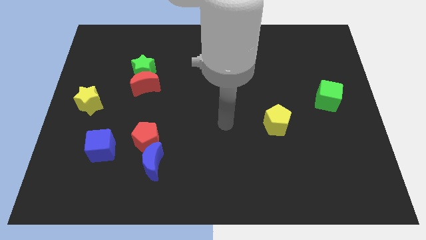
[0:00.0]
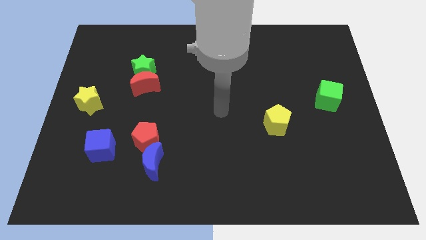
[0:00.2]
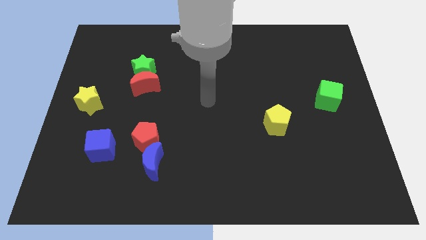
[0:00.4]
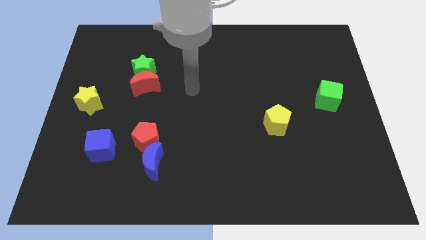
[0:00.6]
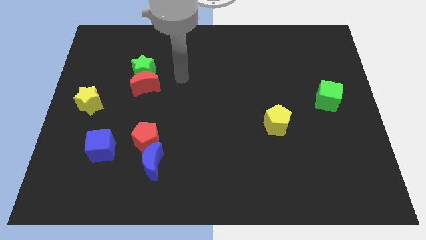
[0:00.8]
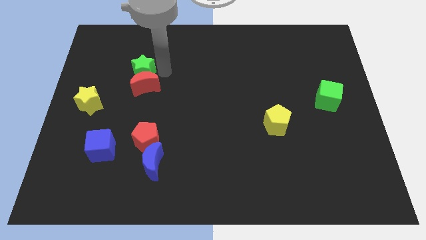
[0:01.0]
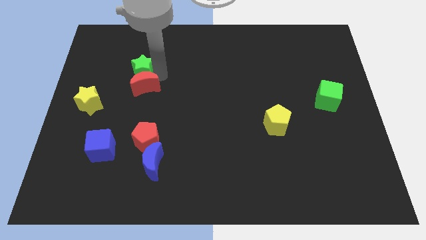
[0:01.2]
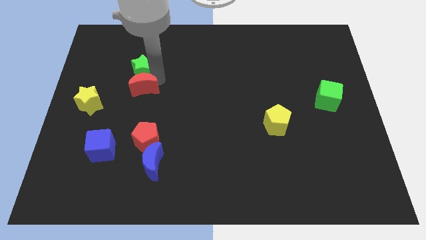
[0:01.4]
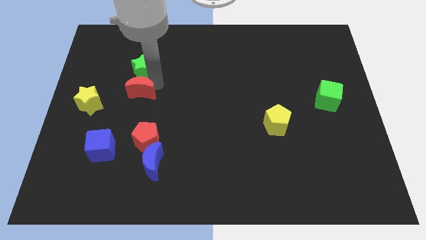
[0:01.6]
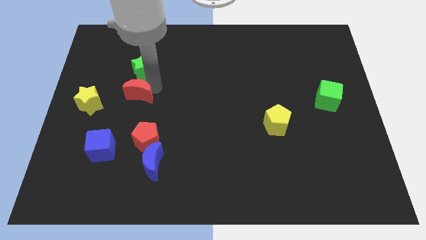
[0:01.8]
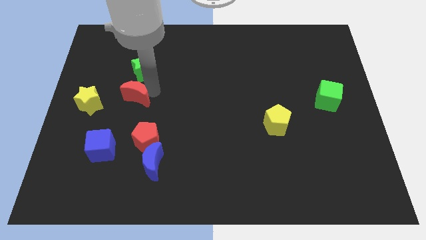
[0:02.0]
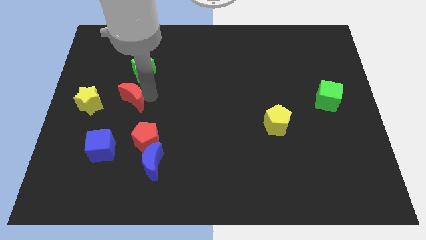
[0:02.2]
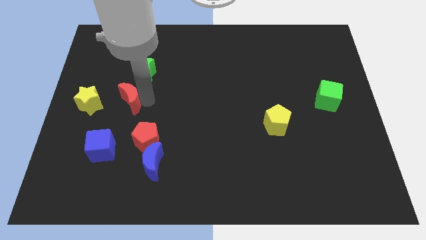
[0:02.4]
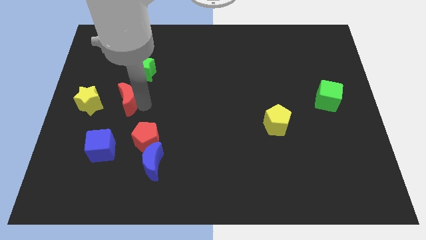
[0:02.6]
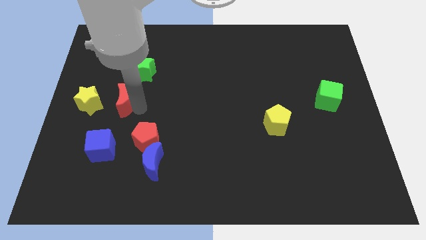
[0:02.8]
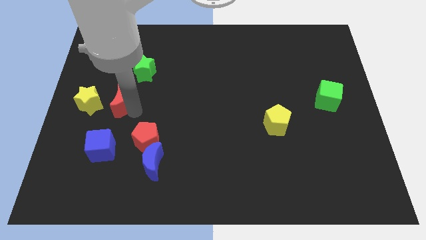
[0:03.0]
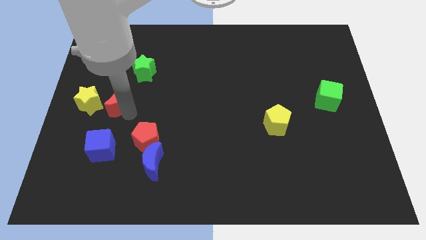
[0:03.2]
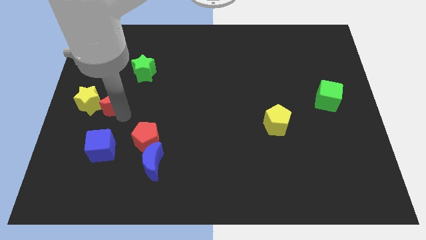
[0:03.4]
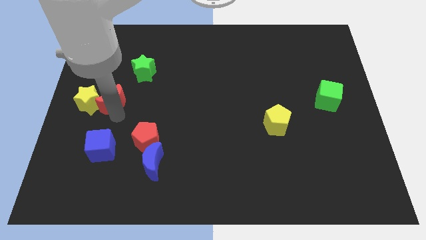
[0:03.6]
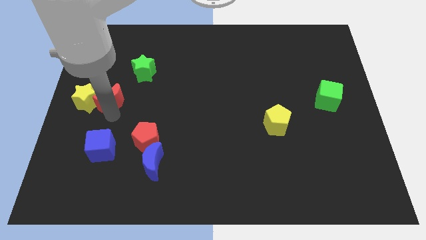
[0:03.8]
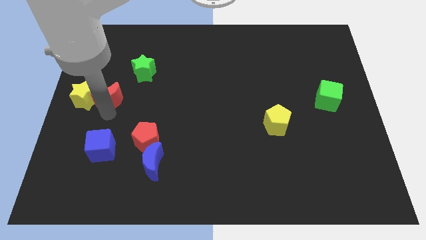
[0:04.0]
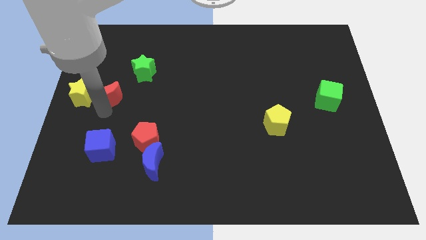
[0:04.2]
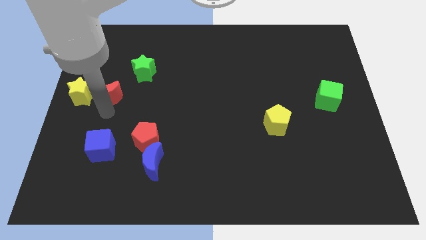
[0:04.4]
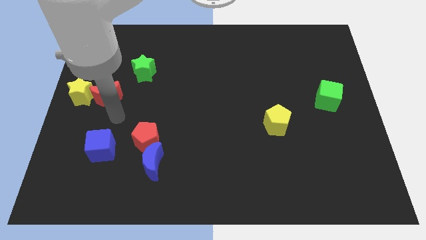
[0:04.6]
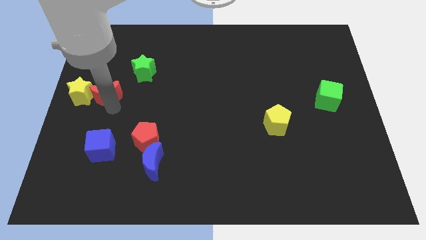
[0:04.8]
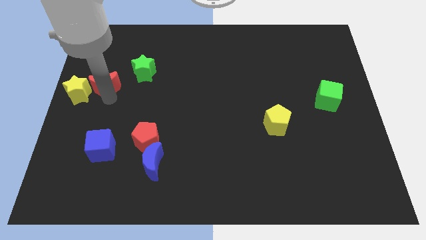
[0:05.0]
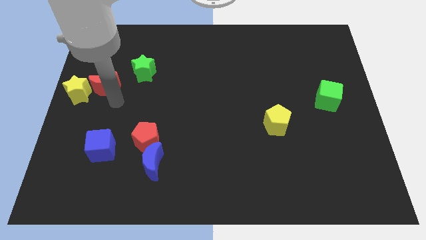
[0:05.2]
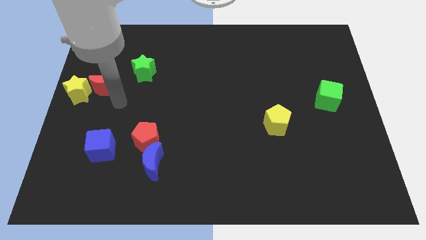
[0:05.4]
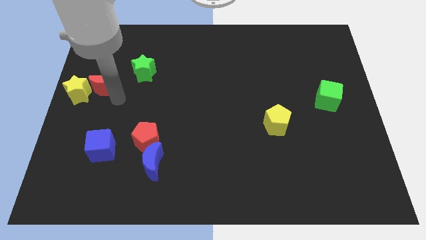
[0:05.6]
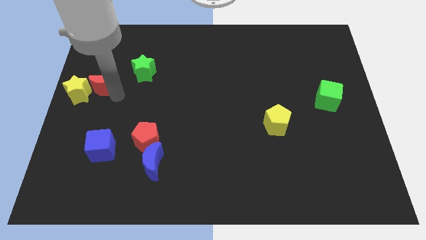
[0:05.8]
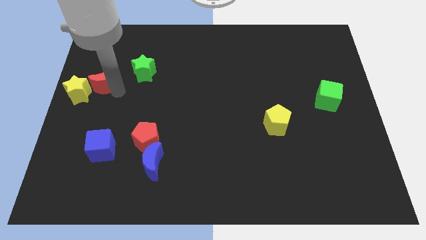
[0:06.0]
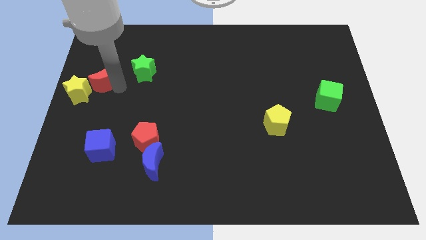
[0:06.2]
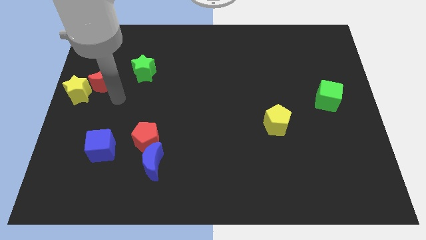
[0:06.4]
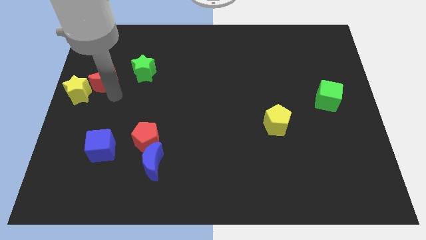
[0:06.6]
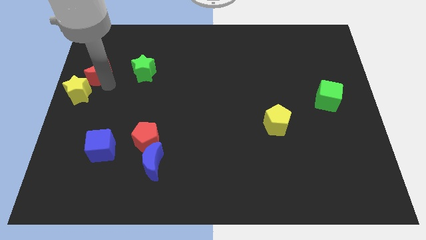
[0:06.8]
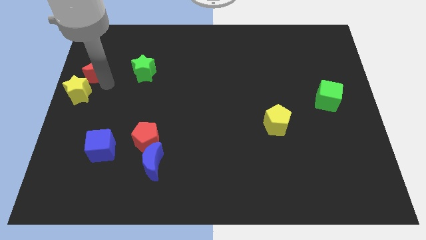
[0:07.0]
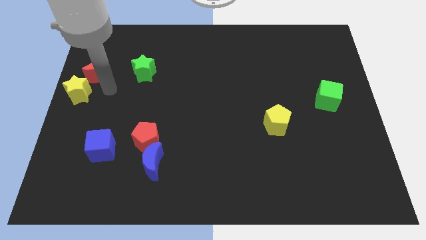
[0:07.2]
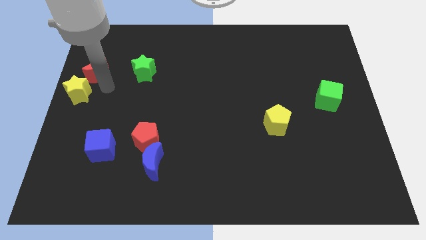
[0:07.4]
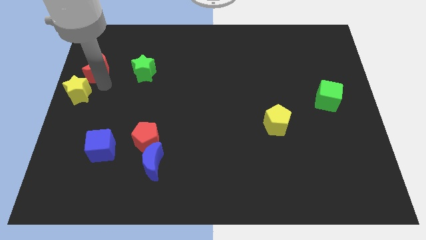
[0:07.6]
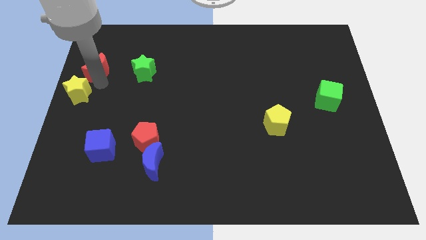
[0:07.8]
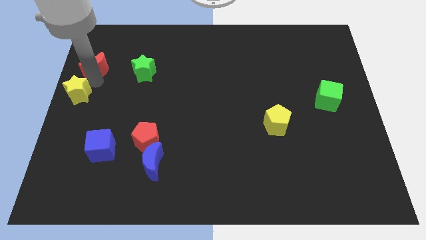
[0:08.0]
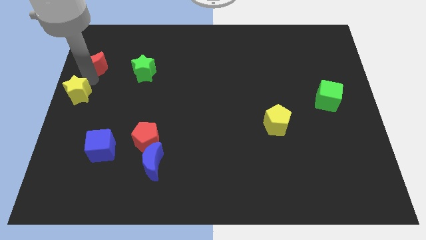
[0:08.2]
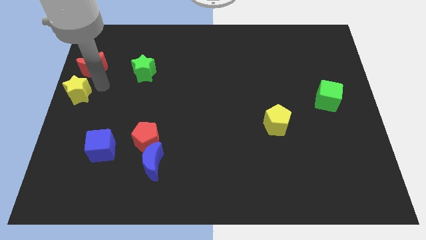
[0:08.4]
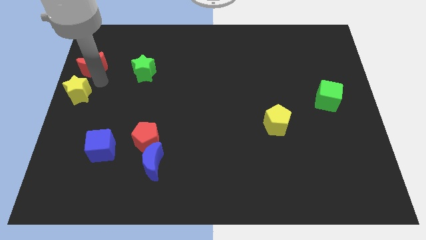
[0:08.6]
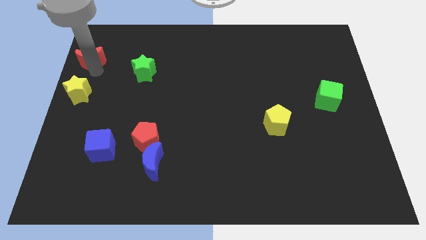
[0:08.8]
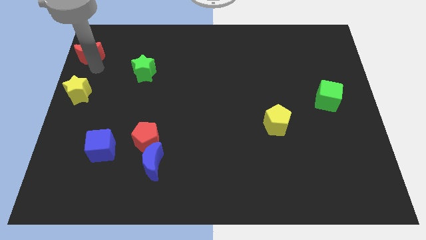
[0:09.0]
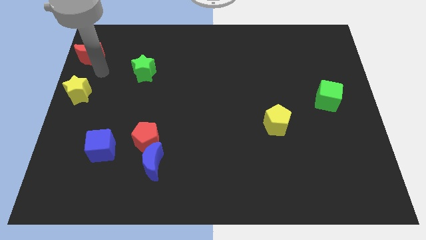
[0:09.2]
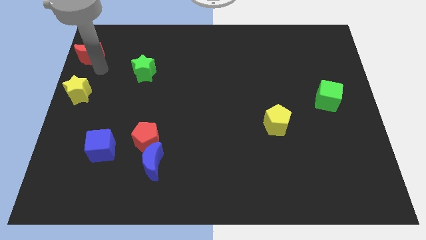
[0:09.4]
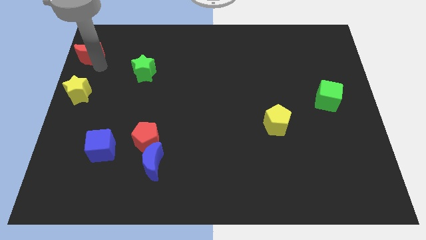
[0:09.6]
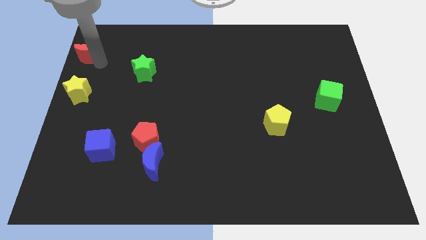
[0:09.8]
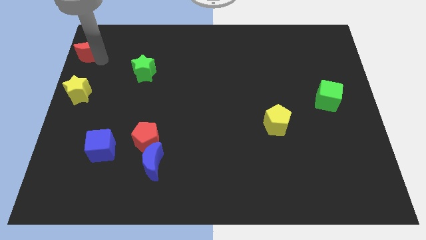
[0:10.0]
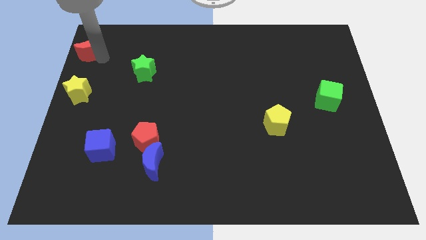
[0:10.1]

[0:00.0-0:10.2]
move the red moon to the top left corner

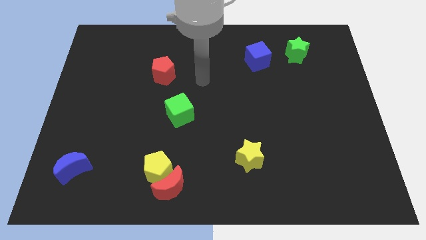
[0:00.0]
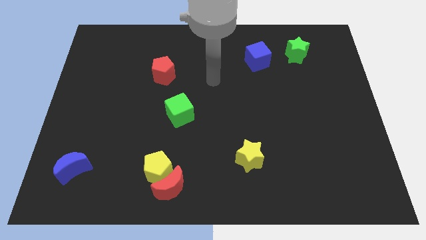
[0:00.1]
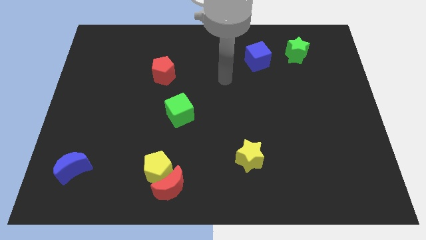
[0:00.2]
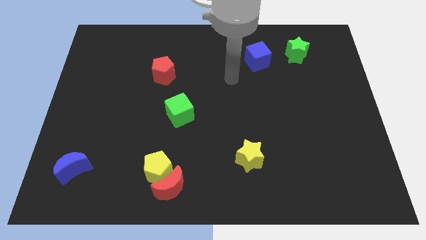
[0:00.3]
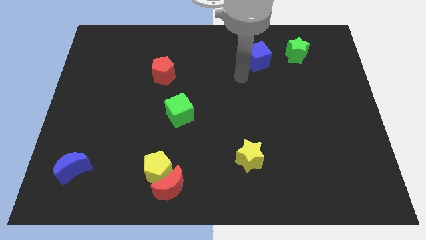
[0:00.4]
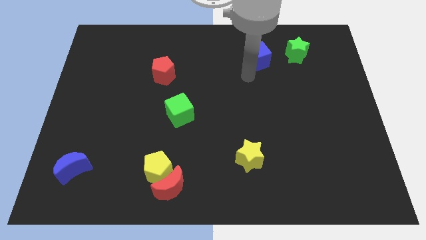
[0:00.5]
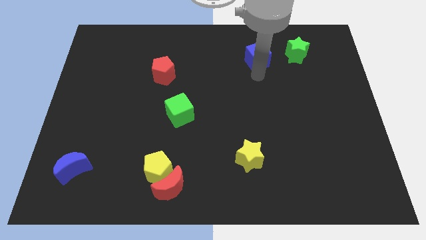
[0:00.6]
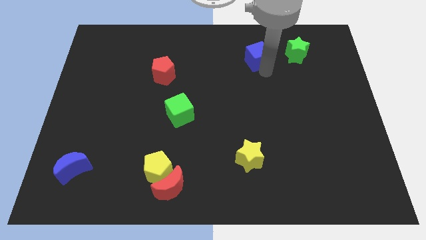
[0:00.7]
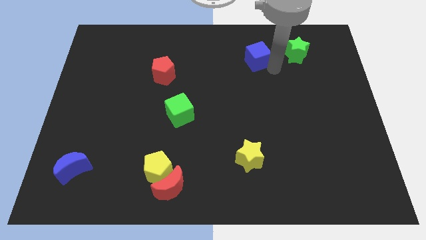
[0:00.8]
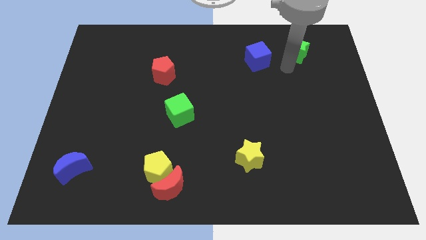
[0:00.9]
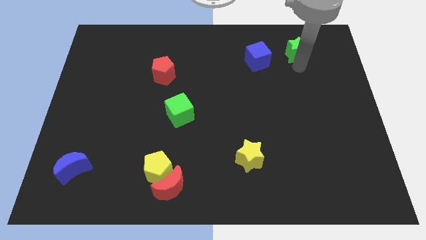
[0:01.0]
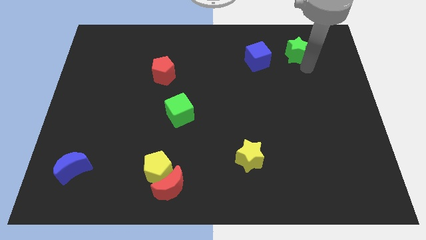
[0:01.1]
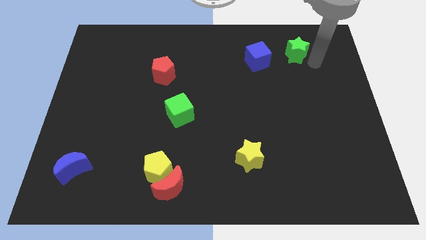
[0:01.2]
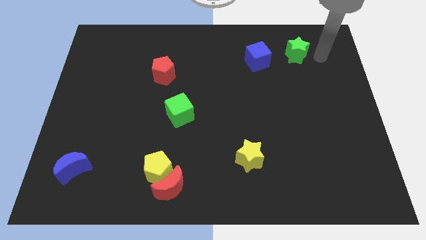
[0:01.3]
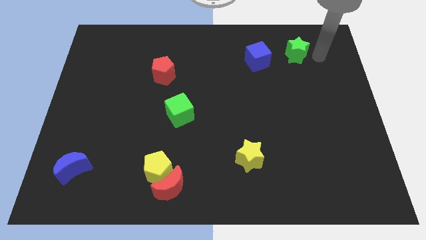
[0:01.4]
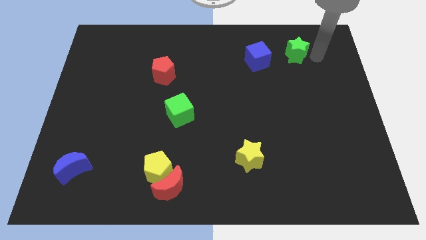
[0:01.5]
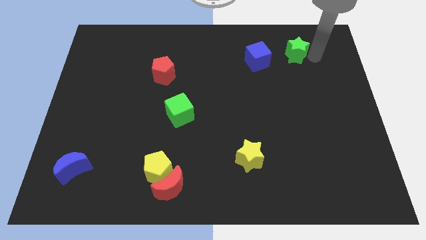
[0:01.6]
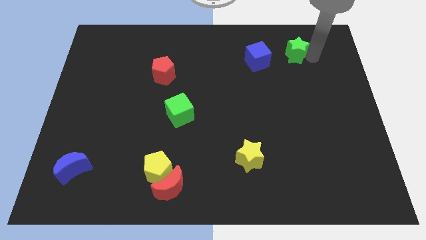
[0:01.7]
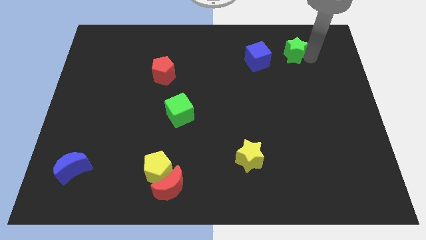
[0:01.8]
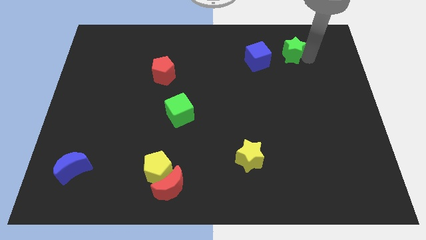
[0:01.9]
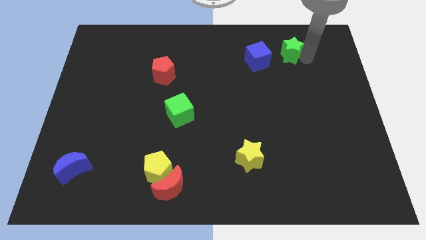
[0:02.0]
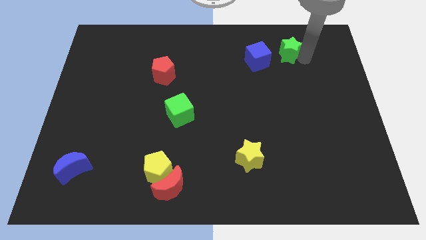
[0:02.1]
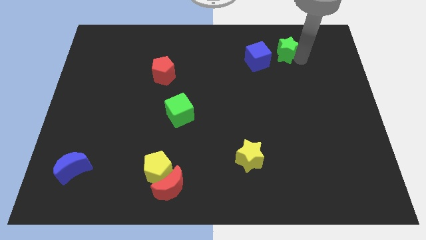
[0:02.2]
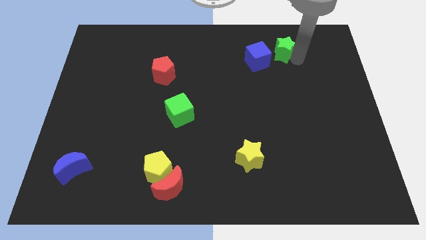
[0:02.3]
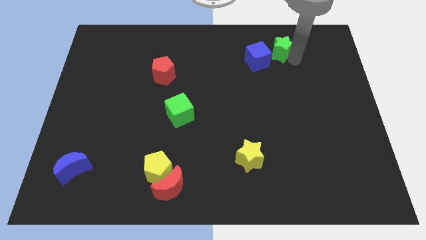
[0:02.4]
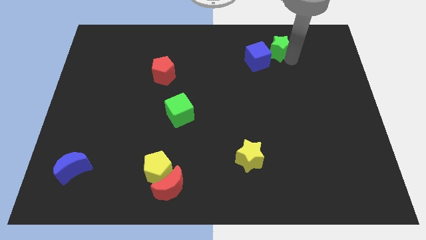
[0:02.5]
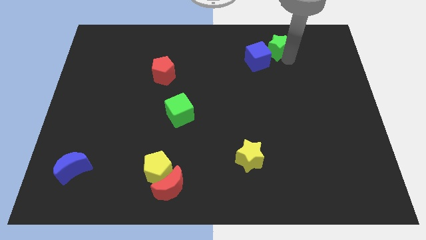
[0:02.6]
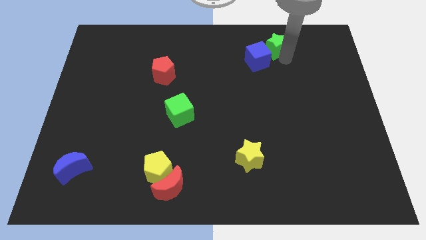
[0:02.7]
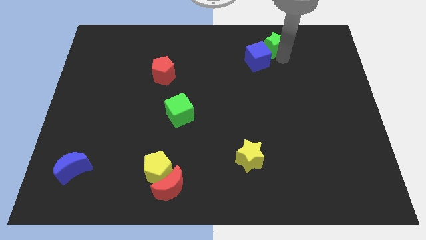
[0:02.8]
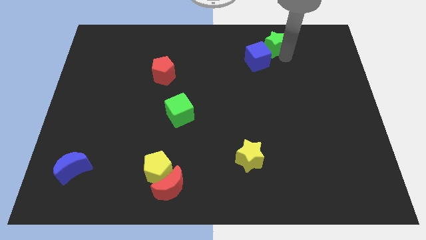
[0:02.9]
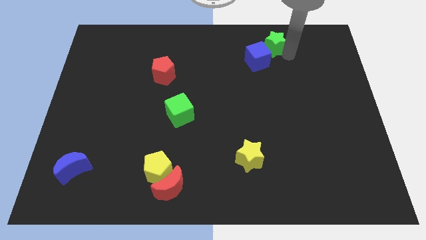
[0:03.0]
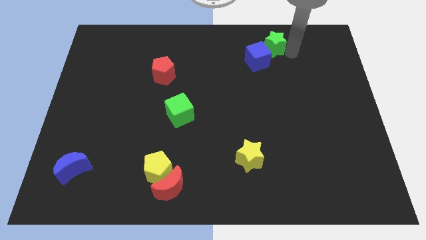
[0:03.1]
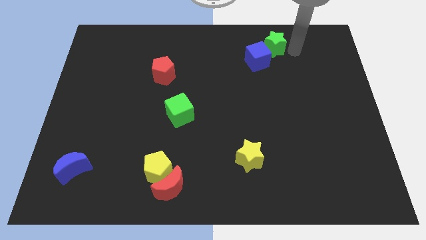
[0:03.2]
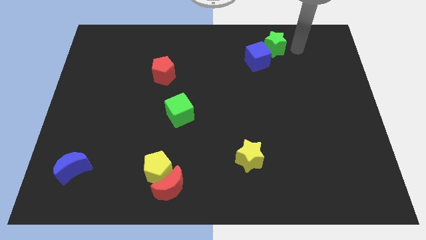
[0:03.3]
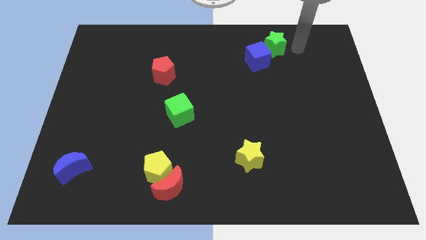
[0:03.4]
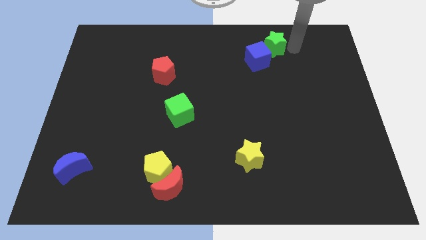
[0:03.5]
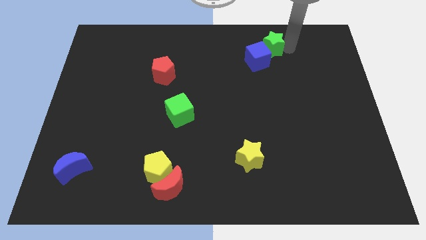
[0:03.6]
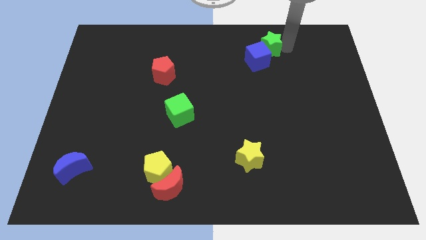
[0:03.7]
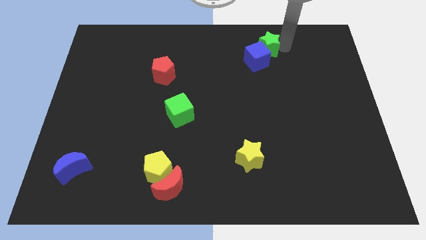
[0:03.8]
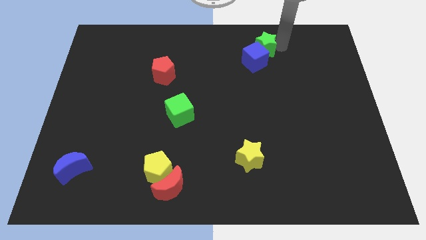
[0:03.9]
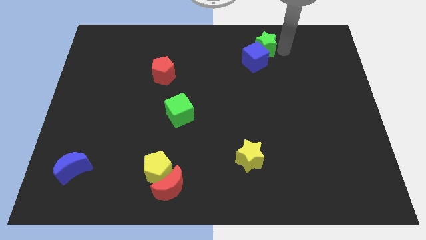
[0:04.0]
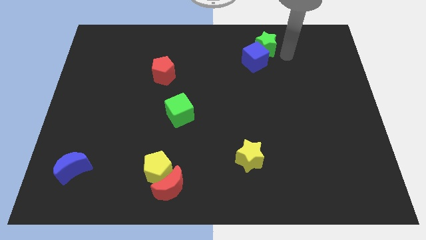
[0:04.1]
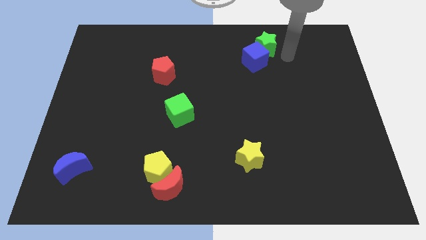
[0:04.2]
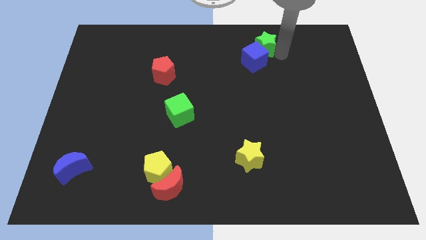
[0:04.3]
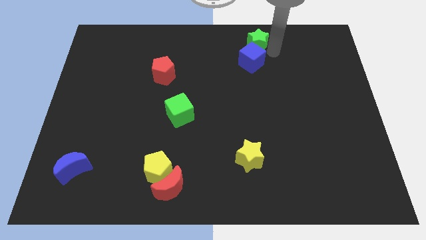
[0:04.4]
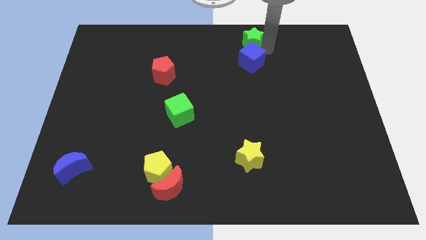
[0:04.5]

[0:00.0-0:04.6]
move the green star to the towards your base
